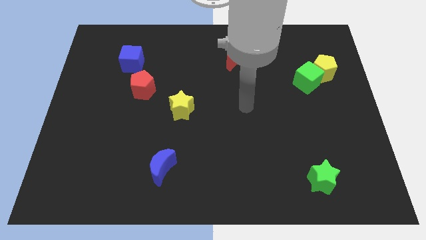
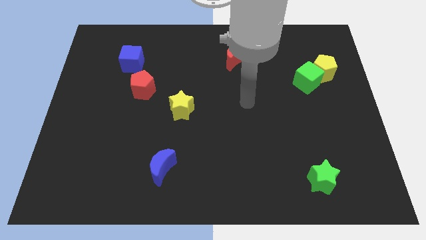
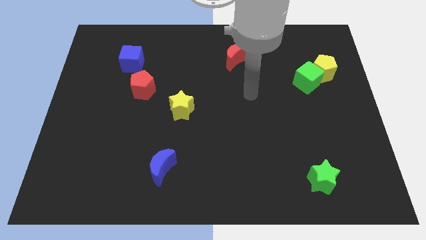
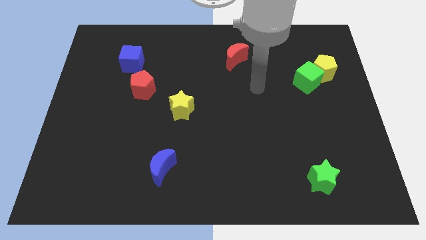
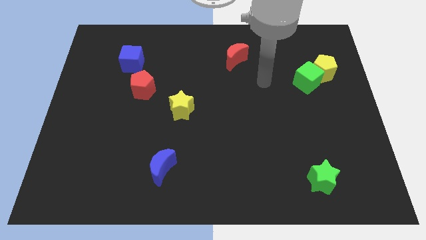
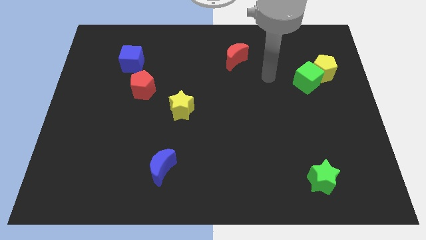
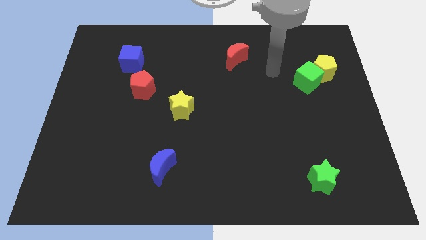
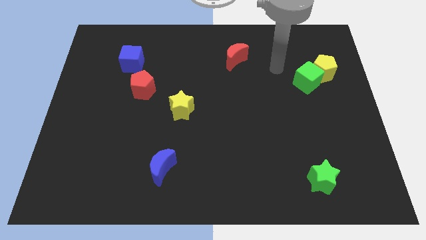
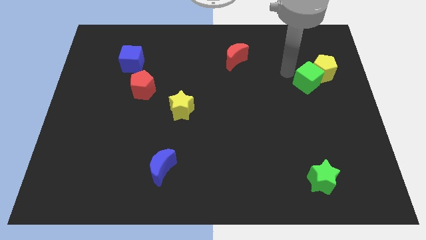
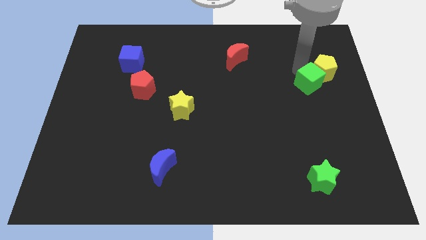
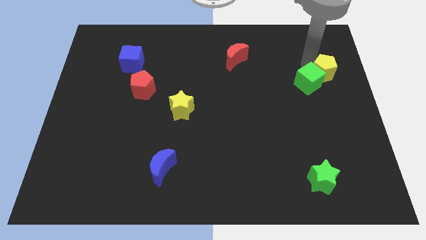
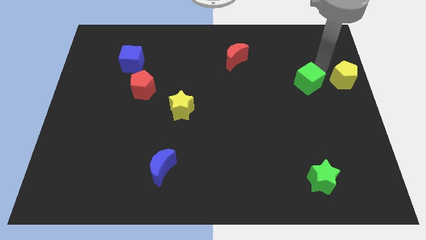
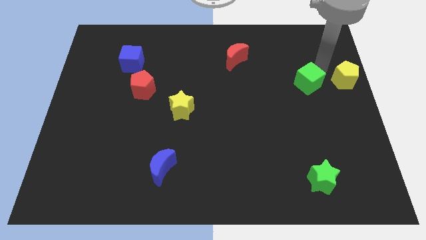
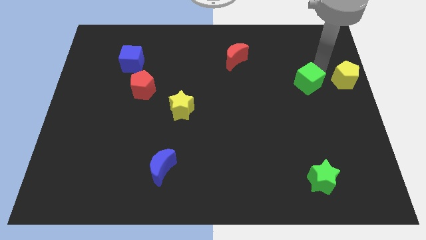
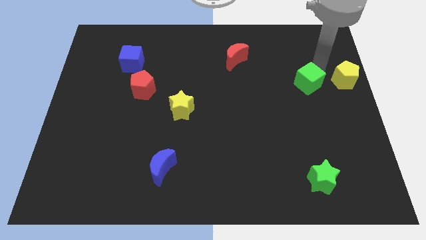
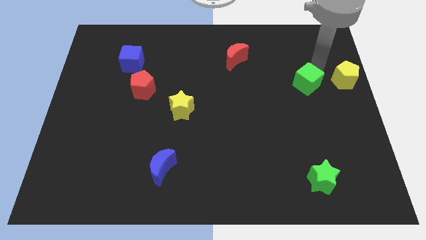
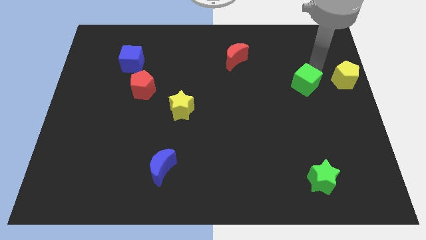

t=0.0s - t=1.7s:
separate the green cube from the yellow pentagon

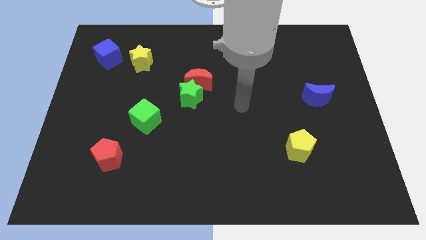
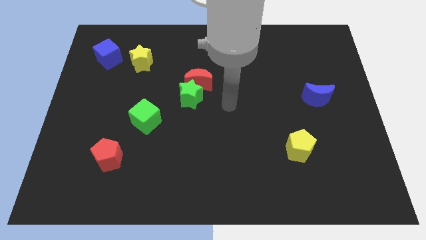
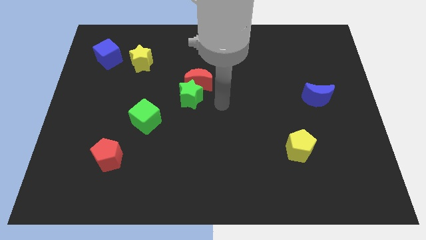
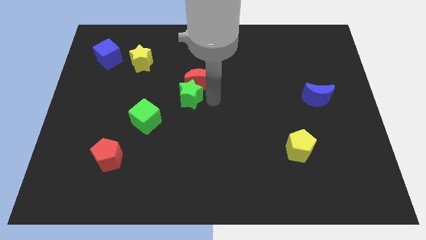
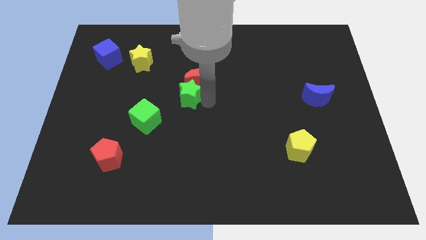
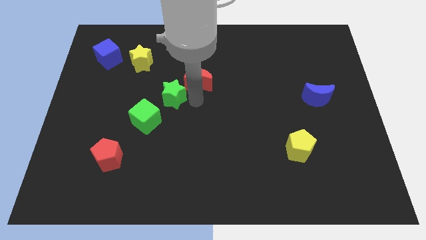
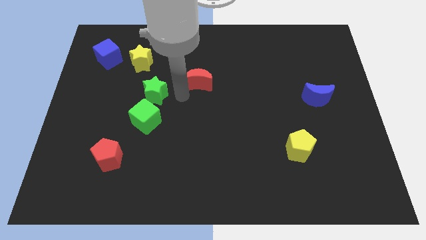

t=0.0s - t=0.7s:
separate the red moon from the green star

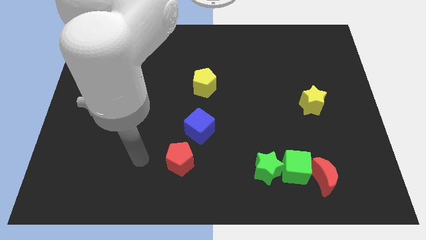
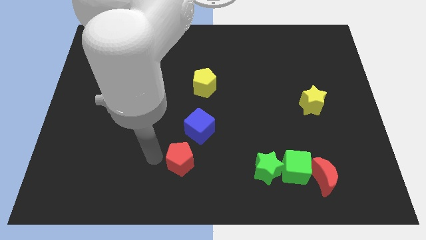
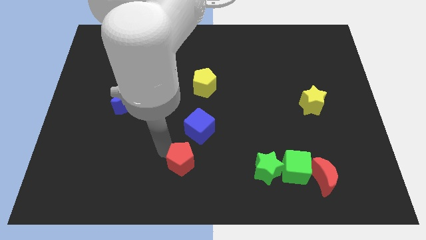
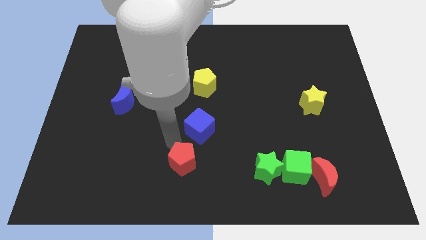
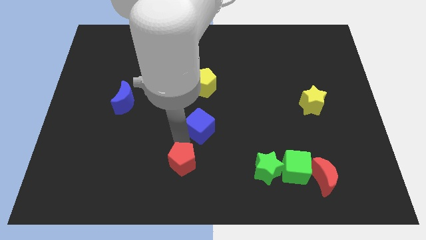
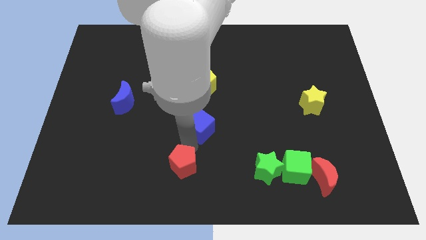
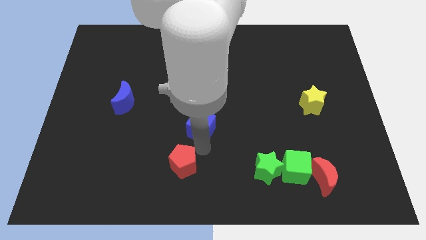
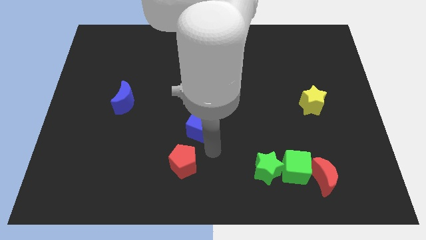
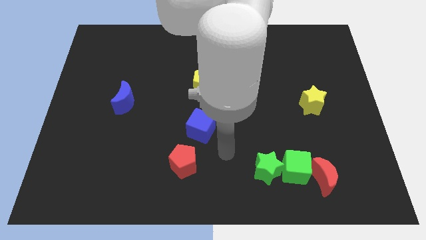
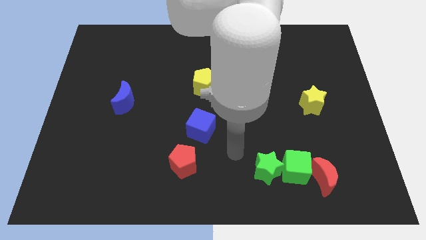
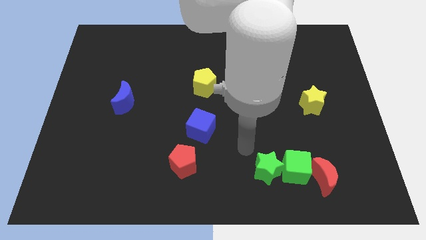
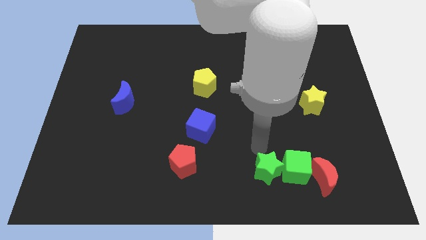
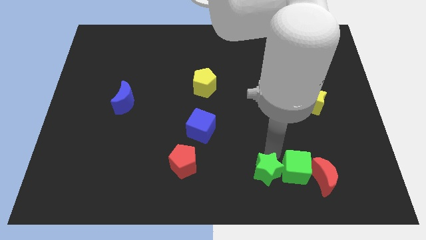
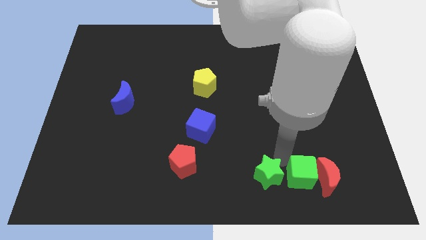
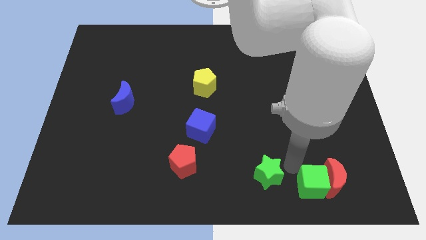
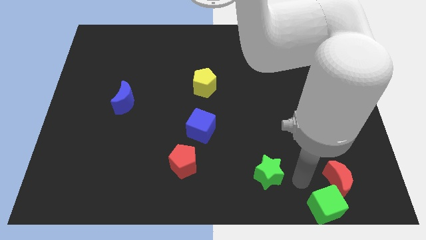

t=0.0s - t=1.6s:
separate the green star from the green cube

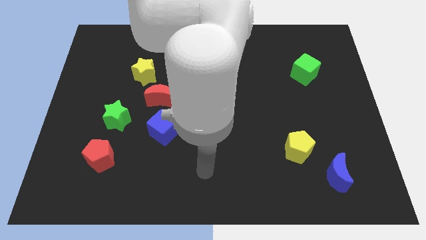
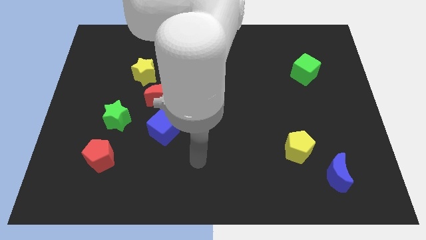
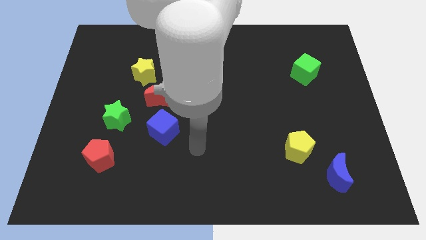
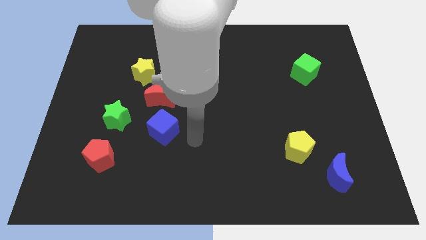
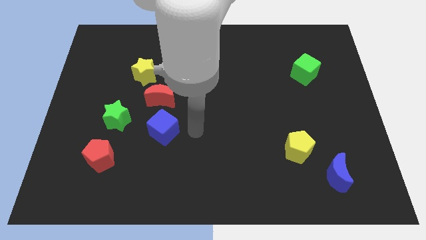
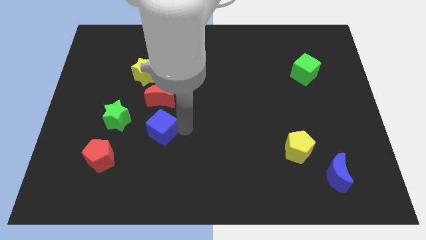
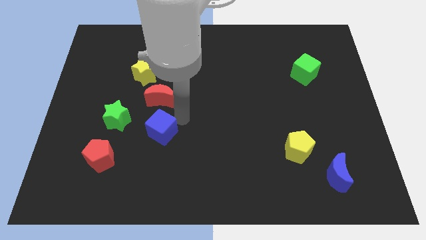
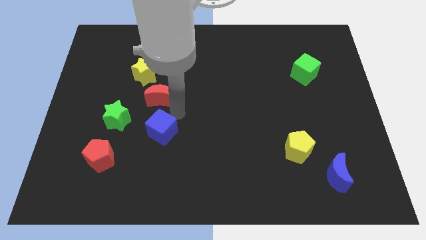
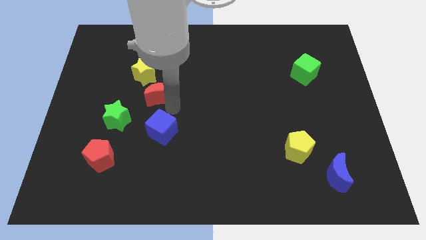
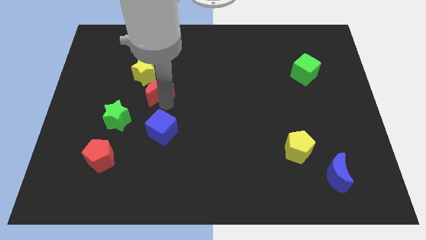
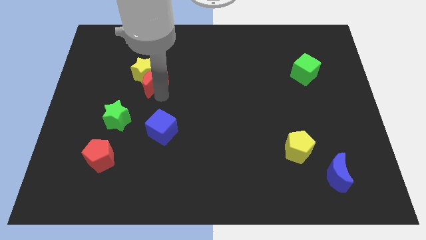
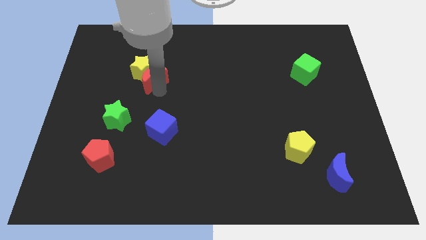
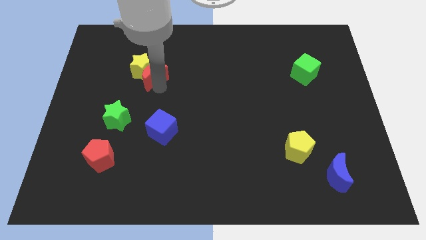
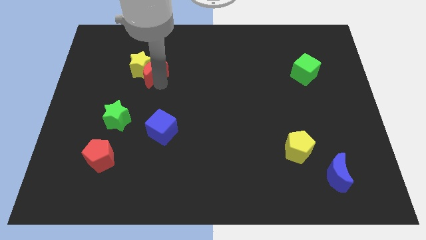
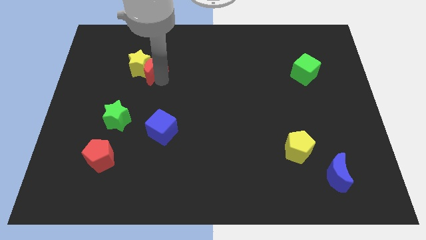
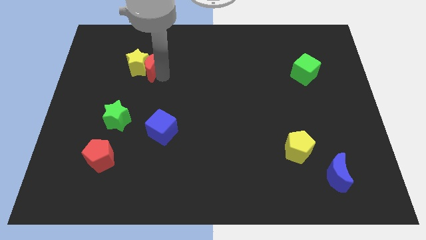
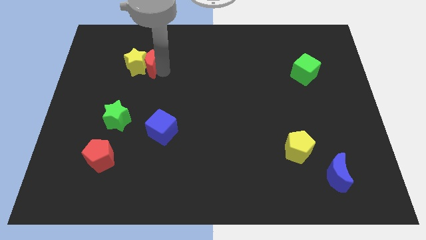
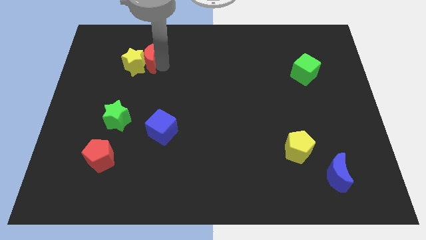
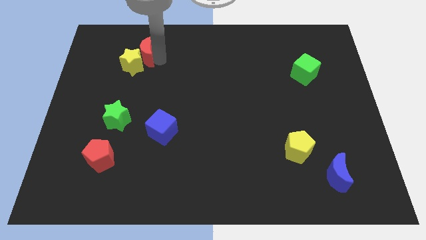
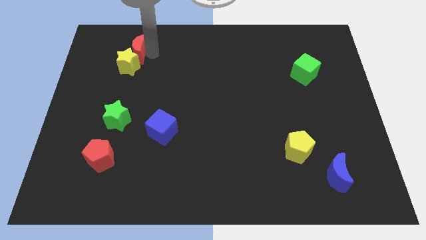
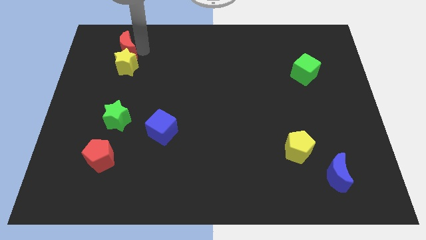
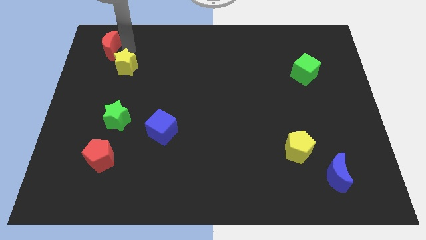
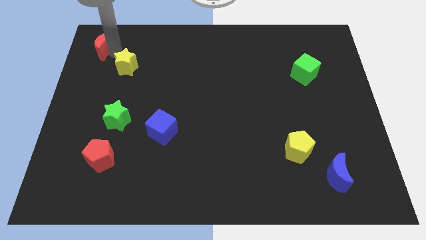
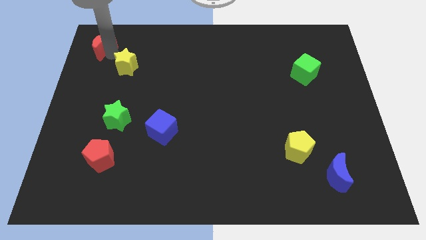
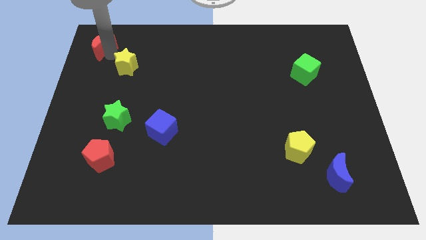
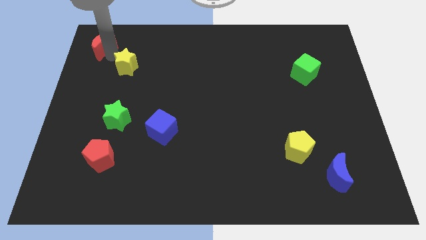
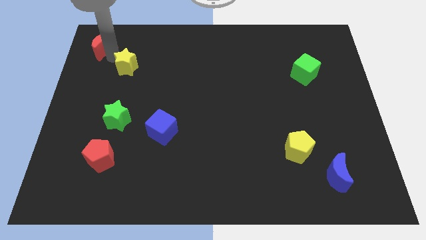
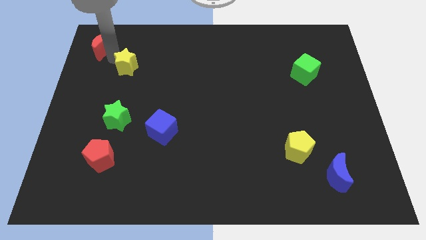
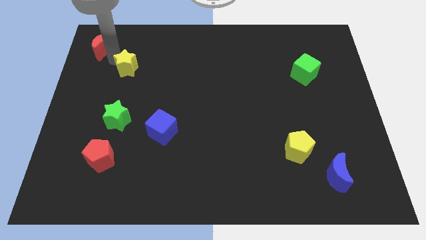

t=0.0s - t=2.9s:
separate the yellow star from the red moon

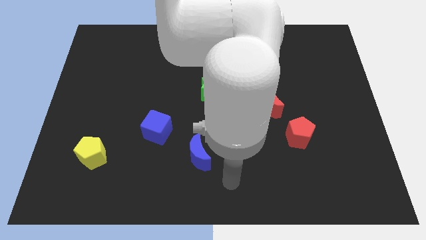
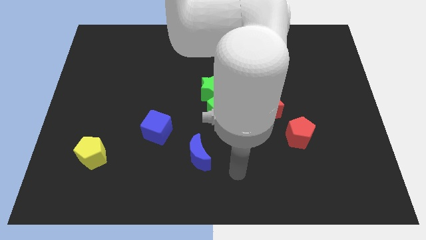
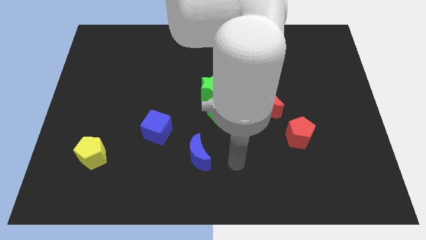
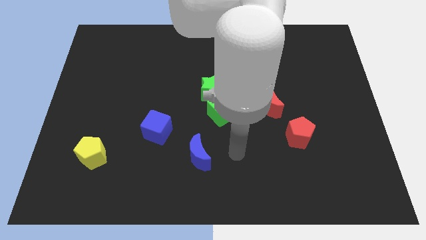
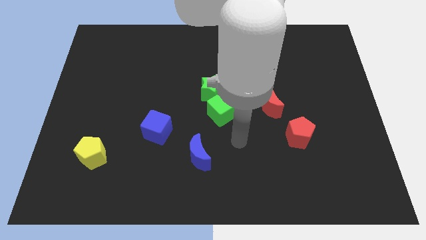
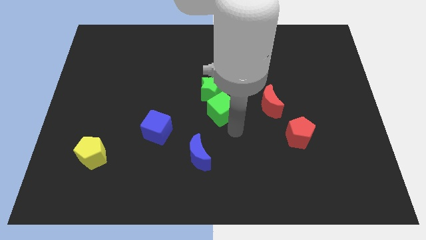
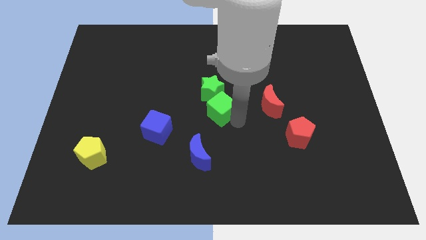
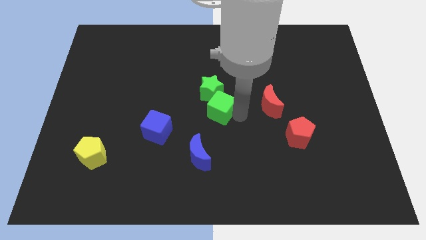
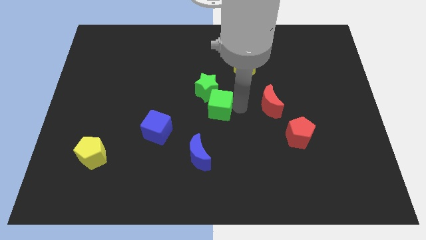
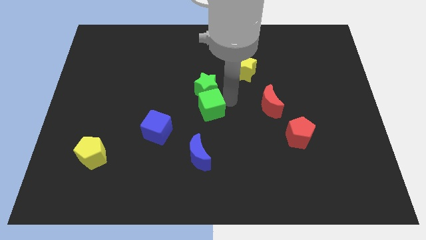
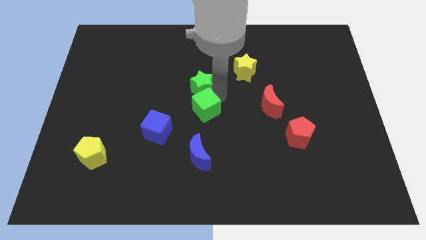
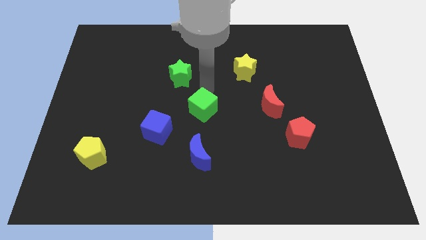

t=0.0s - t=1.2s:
pull the green cube apart from the green star

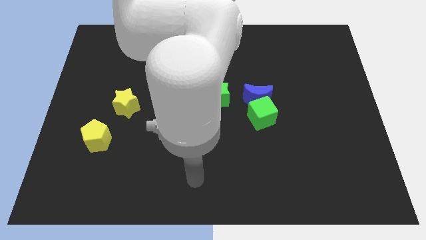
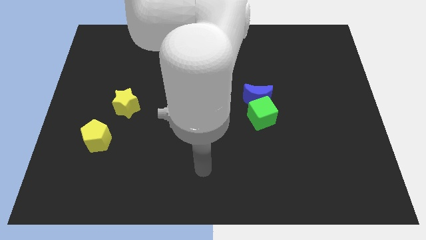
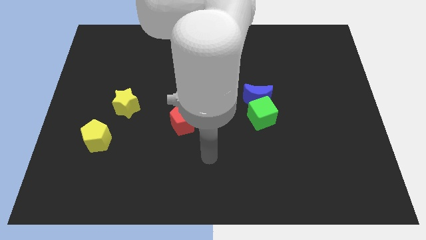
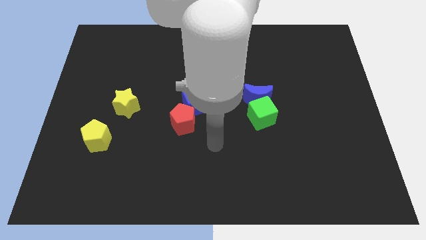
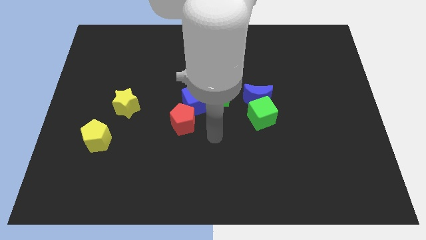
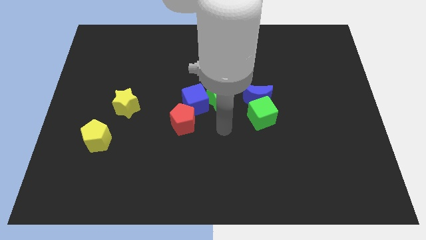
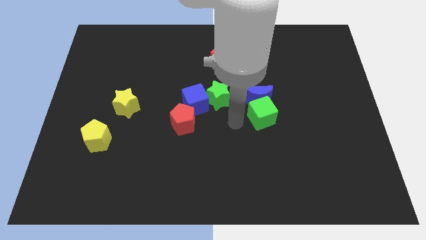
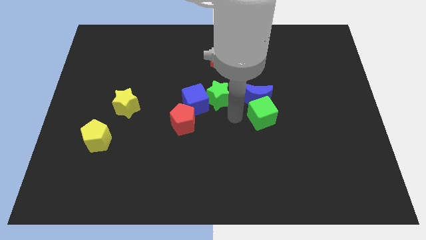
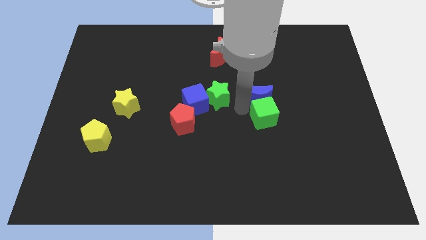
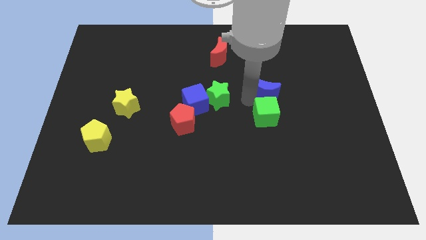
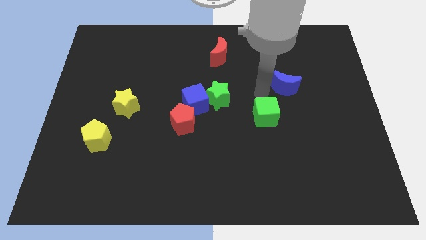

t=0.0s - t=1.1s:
pull the green cube apart from the blue moon

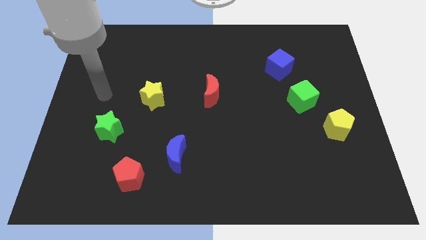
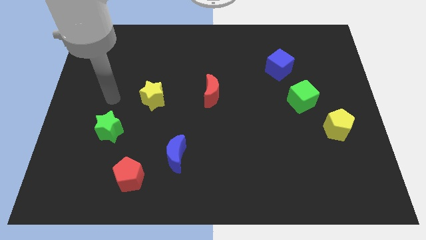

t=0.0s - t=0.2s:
separate the red pentagon from the blue moon
